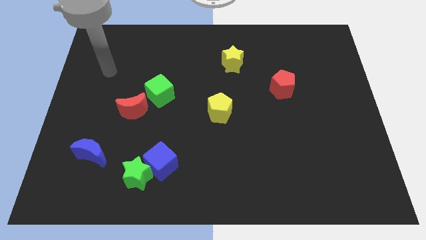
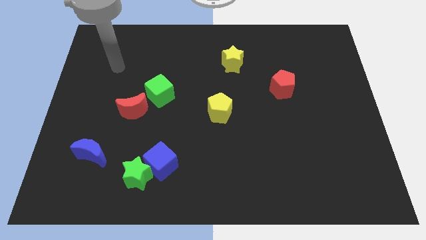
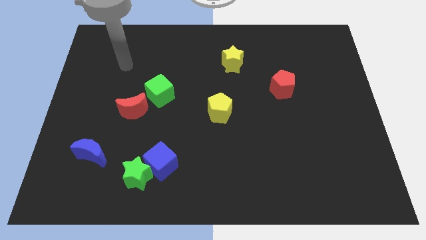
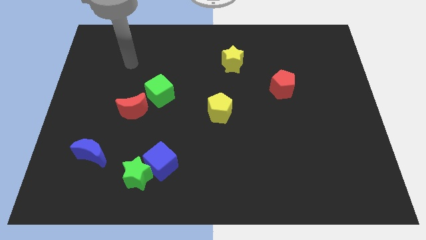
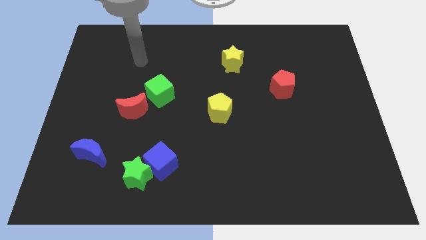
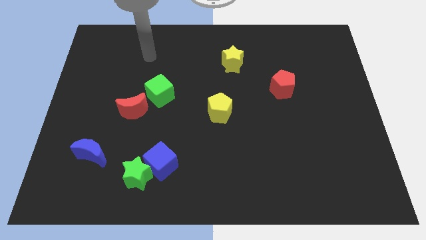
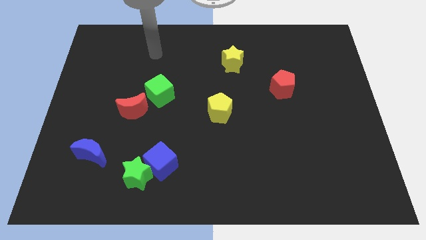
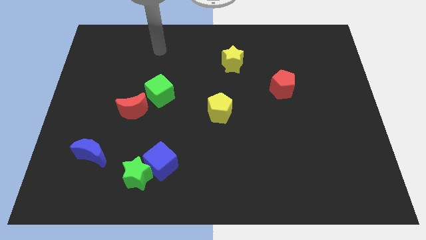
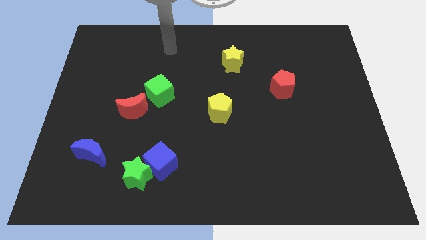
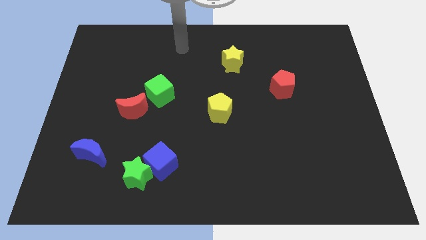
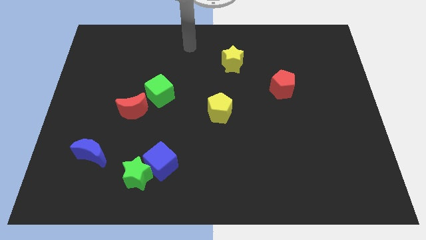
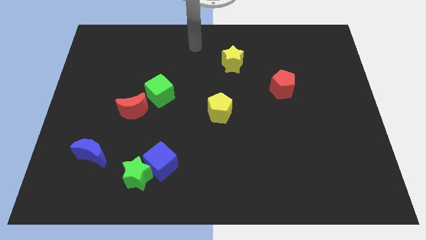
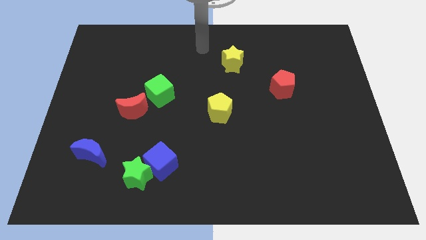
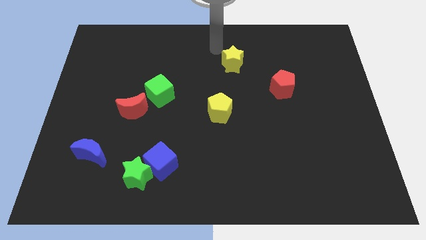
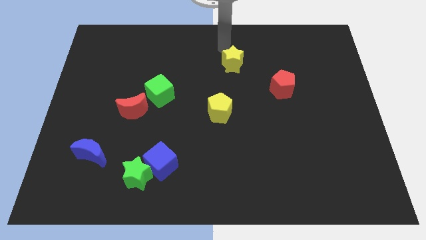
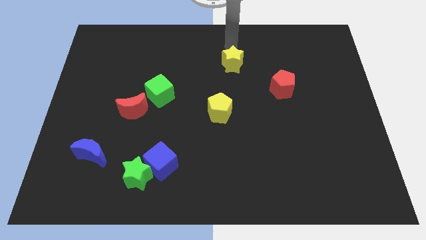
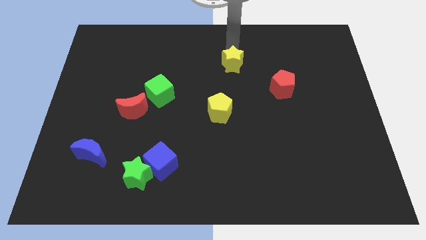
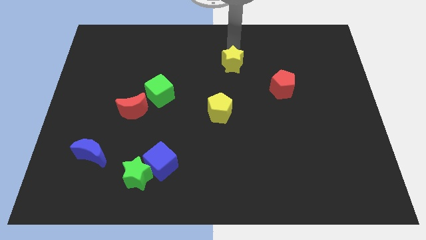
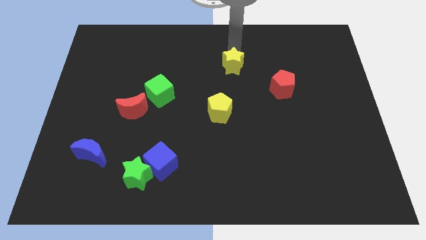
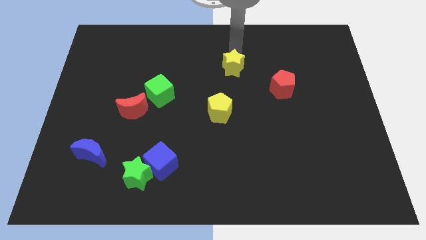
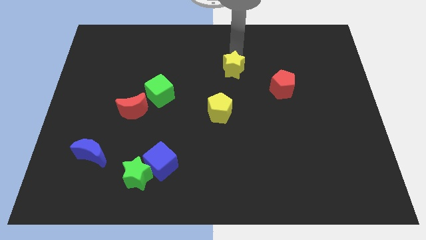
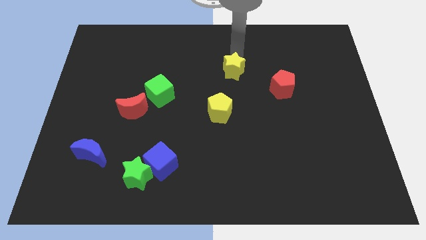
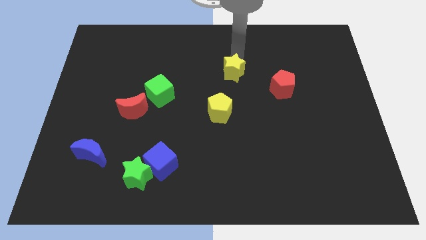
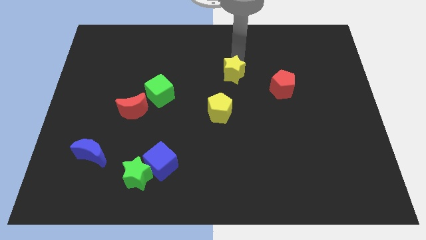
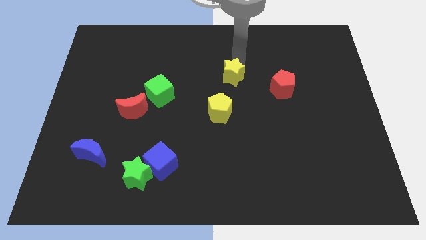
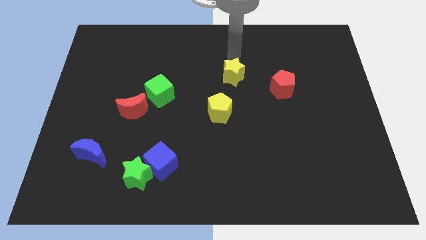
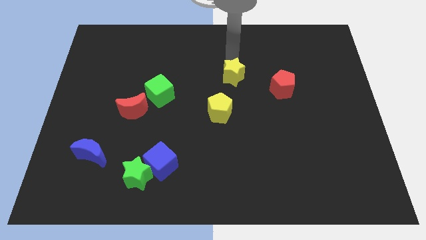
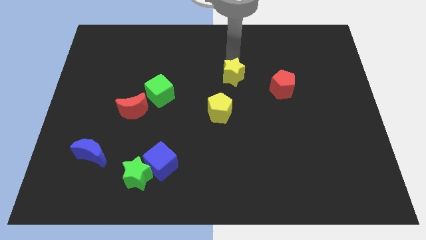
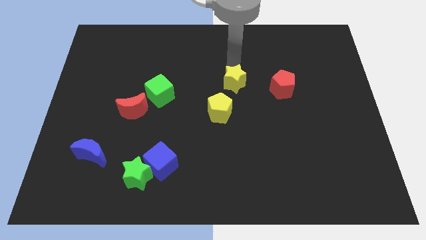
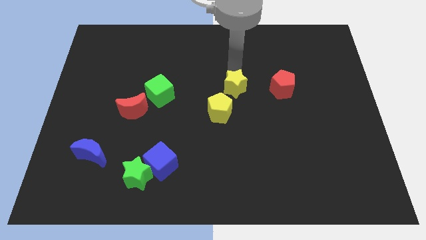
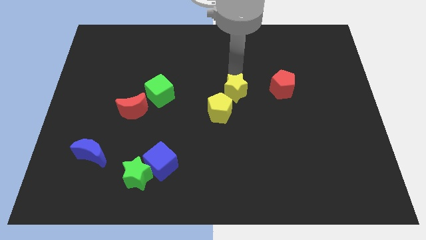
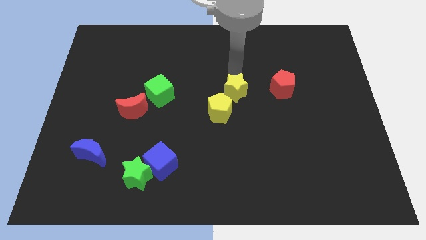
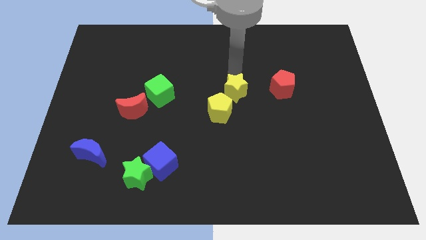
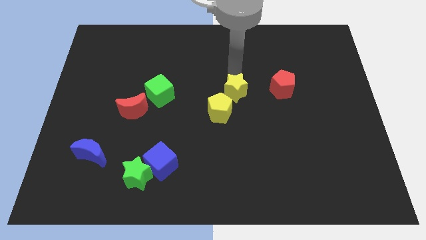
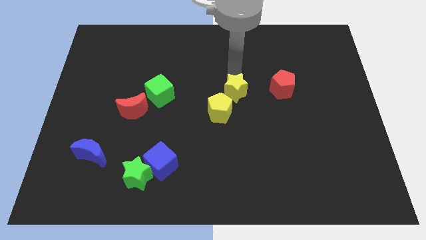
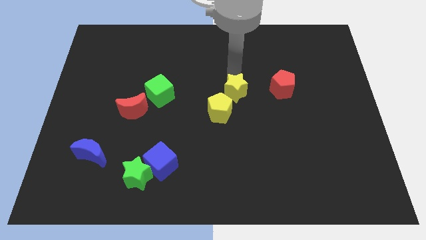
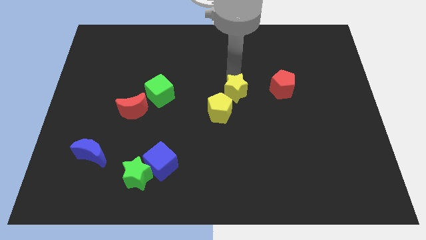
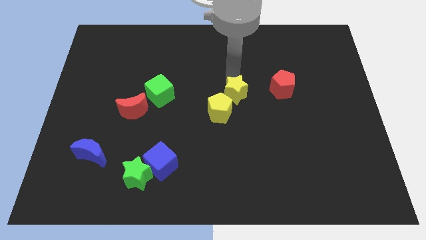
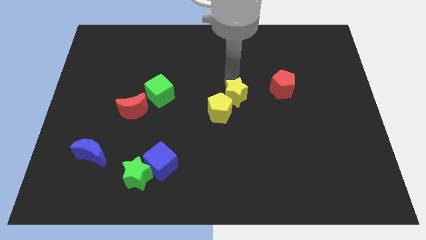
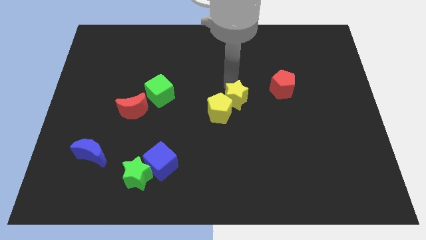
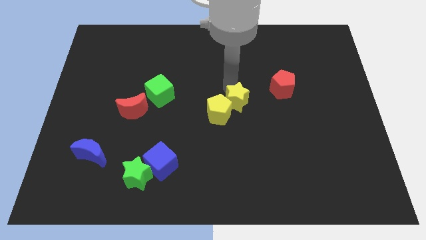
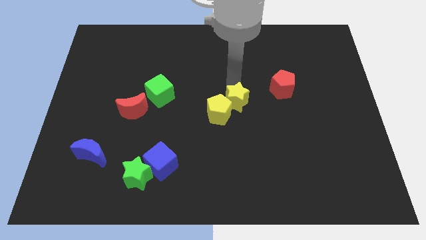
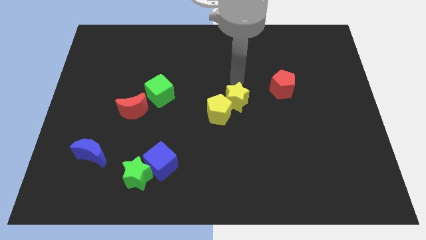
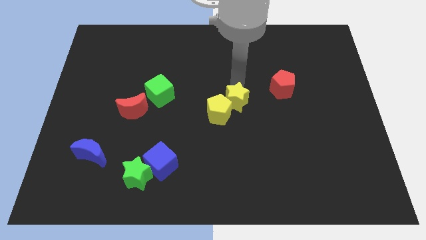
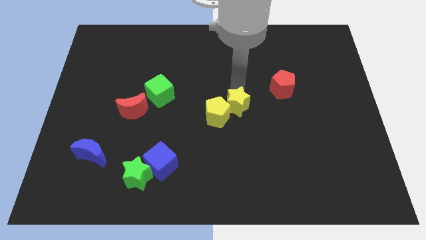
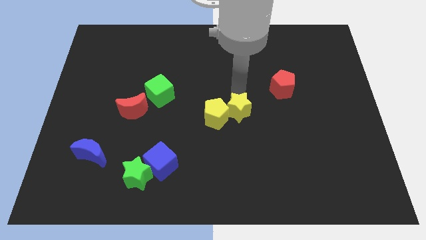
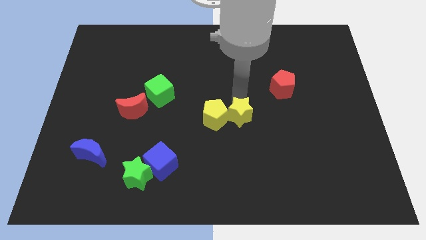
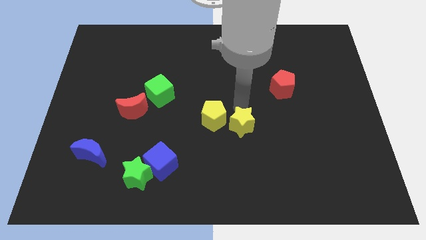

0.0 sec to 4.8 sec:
slide the yellow star down

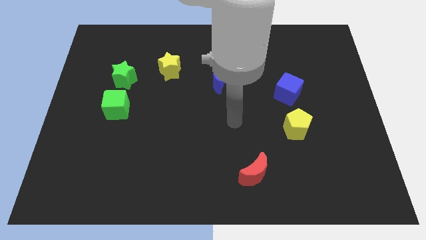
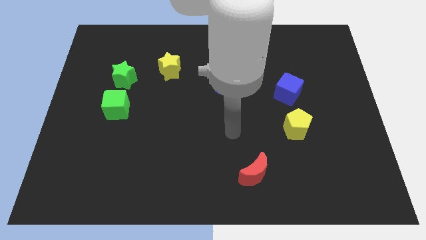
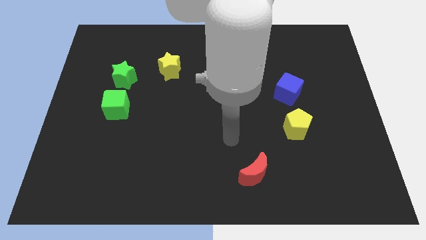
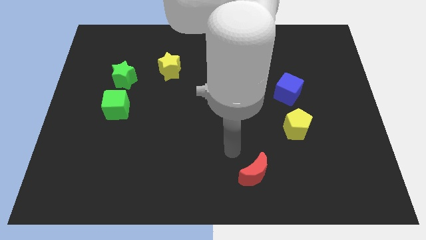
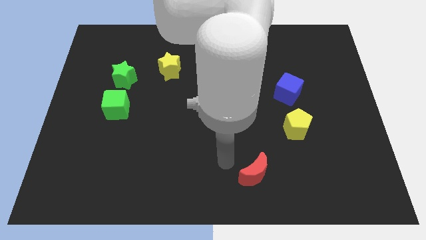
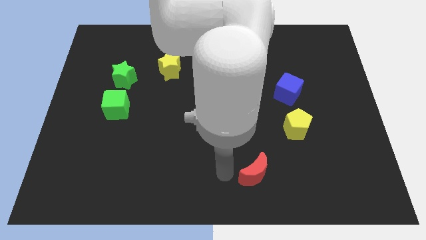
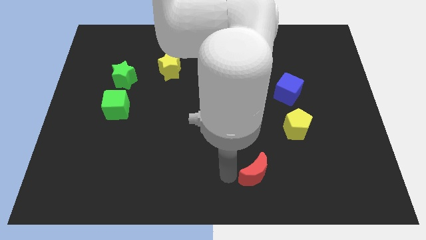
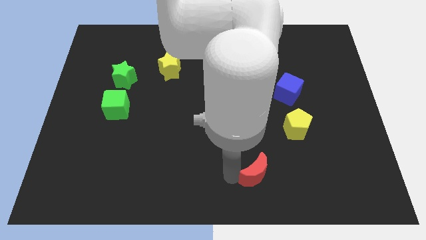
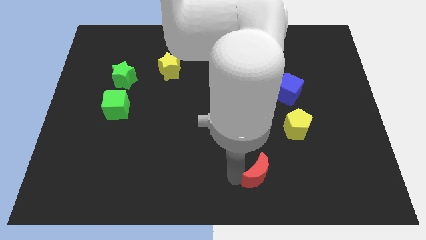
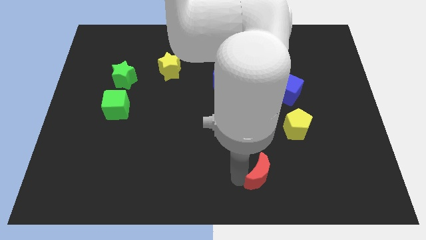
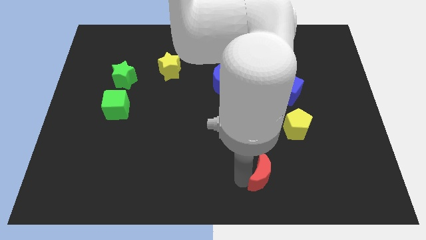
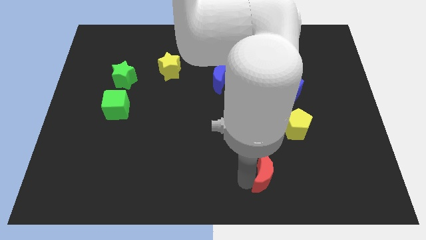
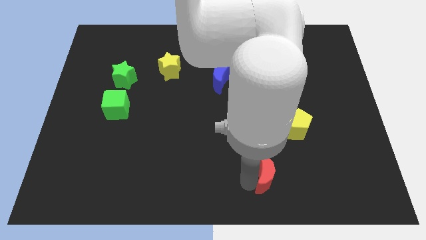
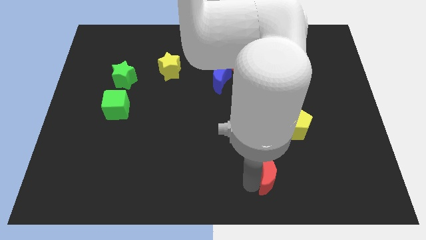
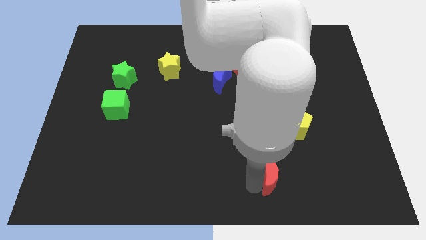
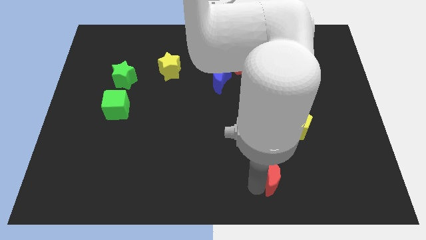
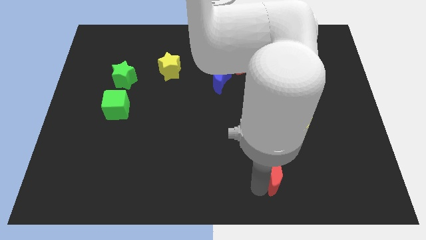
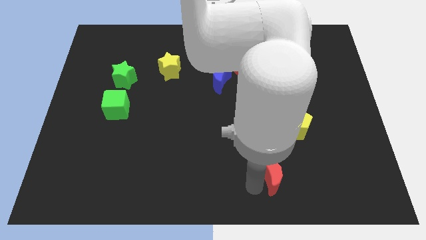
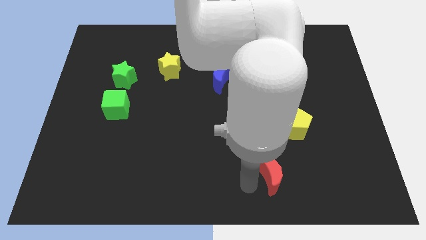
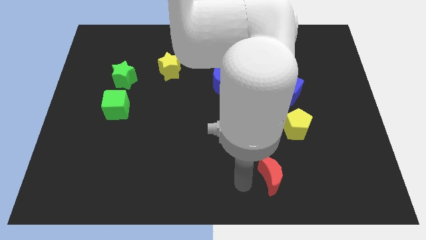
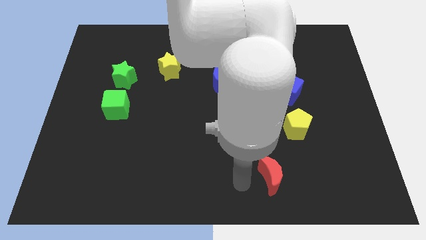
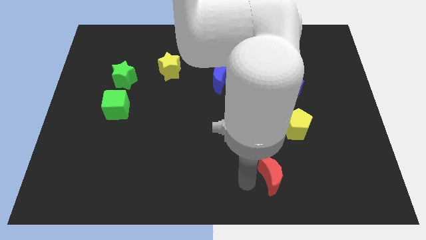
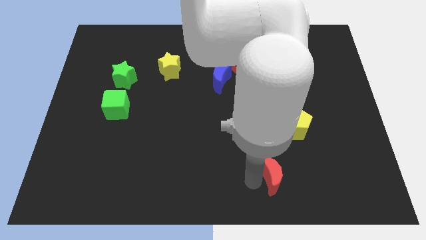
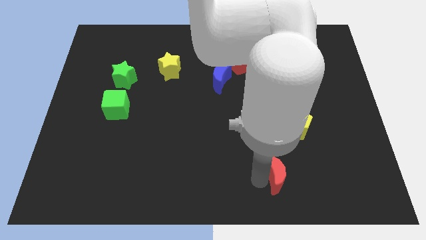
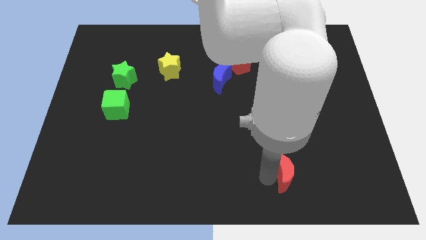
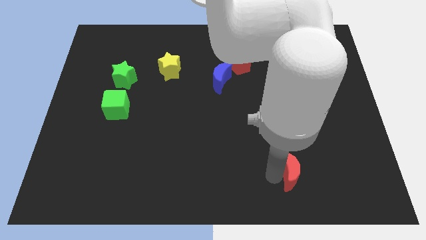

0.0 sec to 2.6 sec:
slightly move the red moon to the right

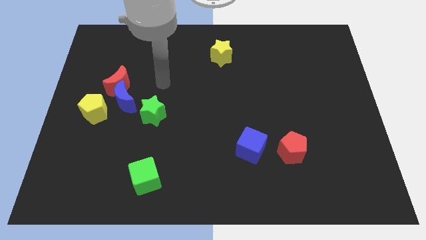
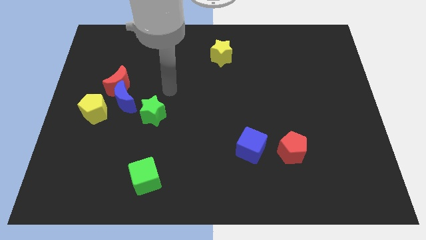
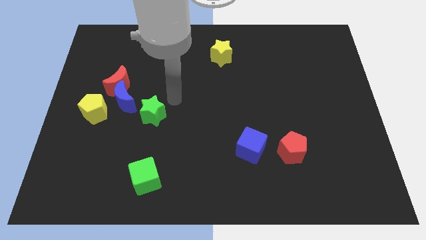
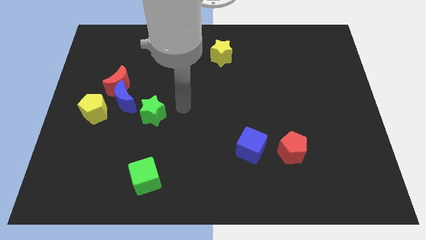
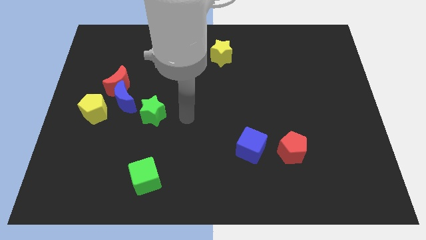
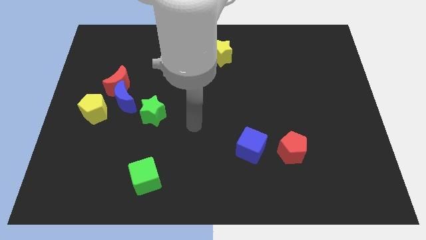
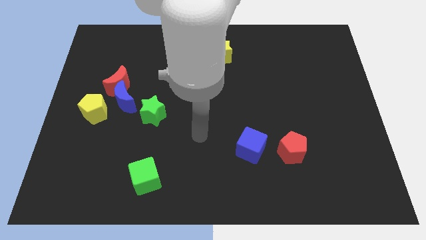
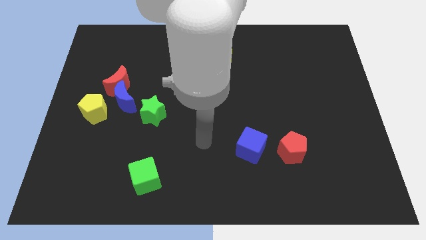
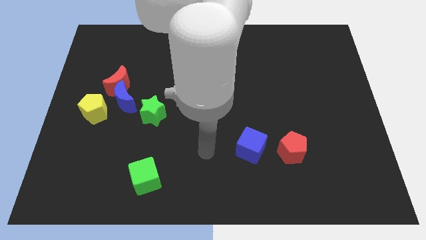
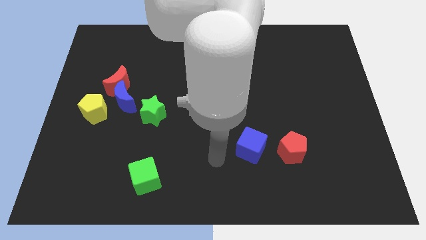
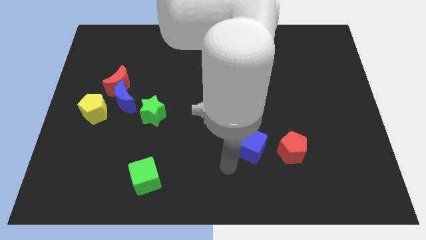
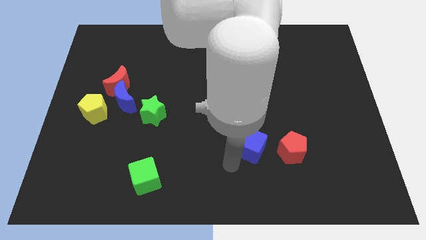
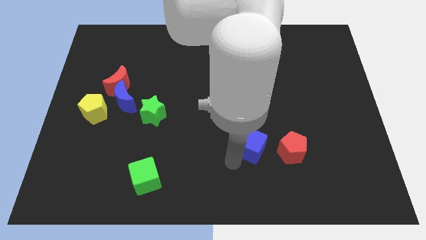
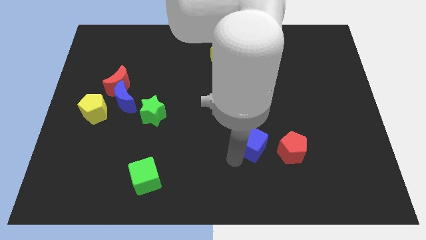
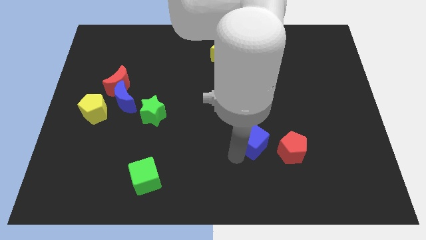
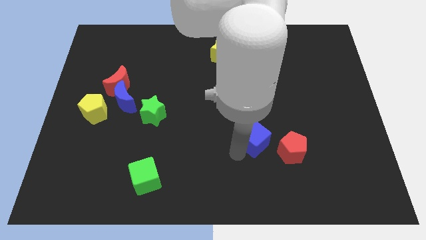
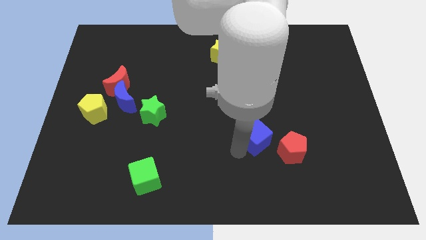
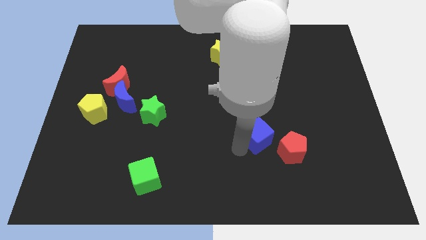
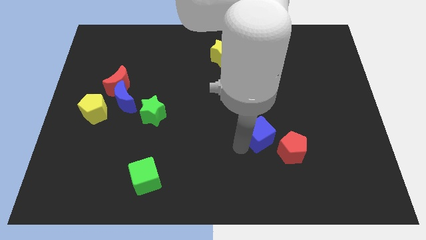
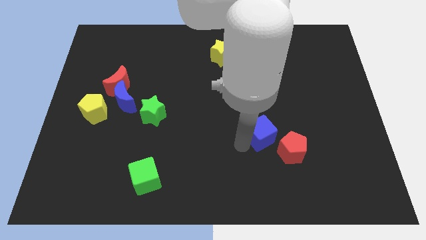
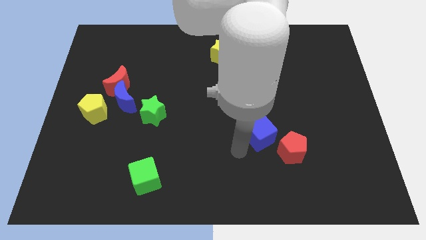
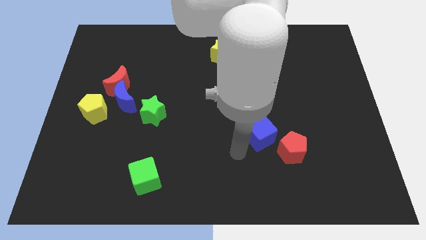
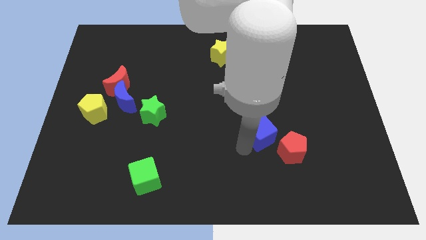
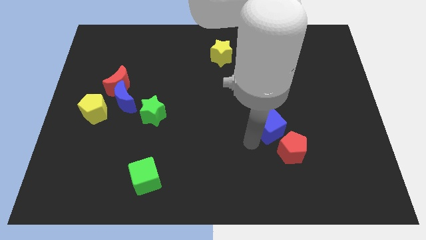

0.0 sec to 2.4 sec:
slide the blue cube a bit upwards and right diagonally
